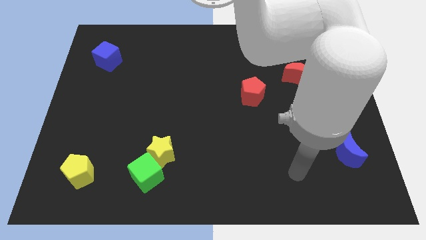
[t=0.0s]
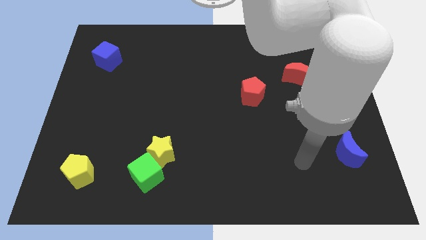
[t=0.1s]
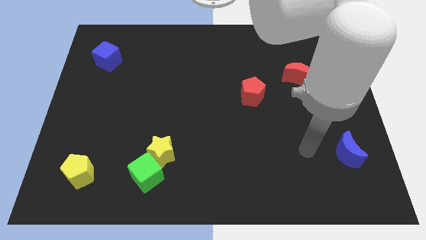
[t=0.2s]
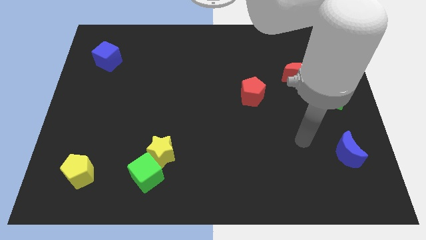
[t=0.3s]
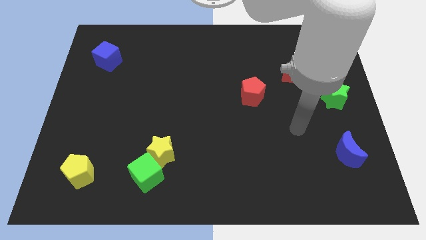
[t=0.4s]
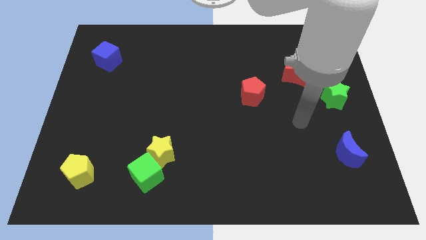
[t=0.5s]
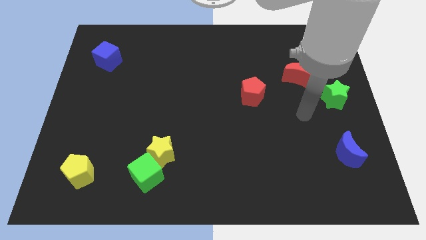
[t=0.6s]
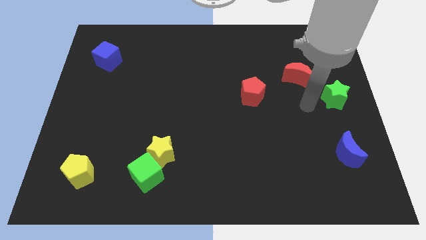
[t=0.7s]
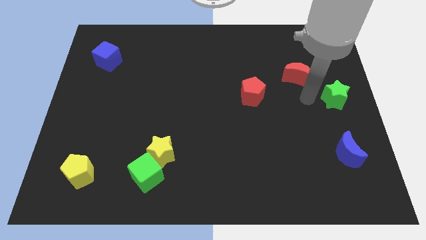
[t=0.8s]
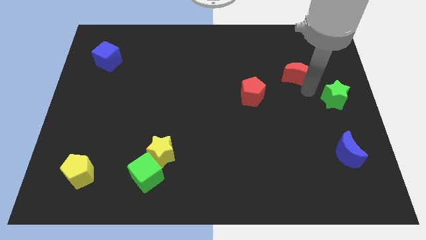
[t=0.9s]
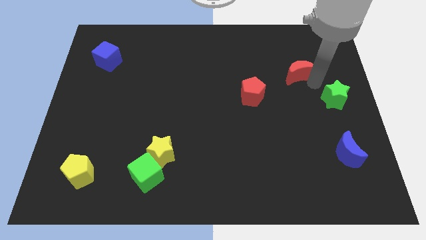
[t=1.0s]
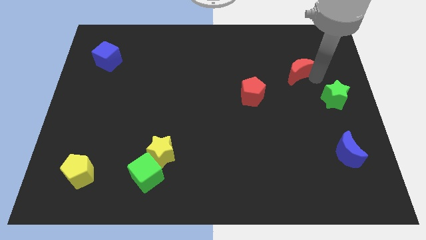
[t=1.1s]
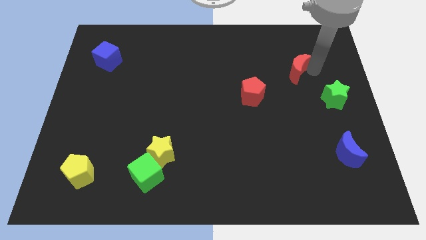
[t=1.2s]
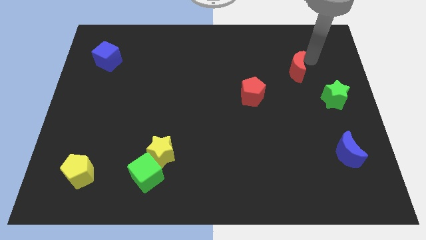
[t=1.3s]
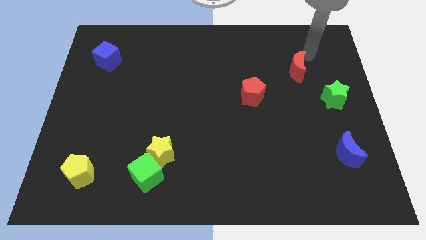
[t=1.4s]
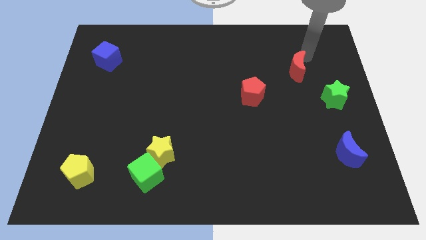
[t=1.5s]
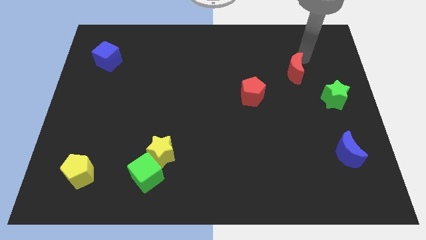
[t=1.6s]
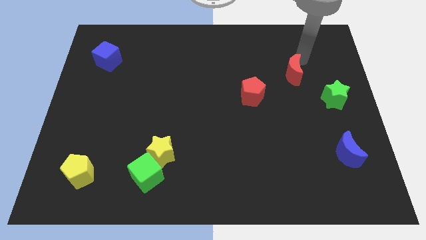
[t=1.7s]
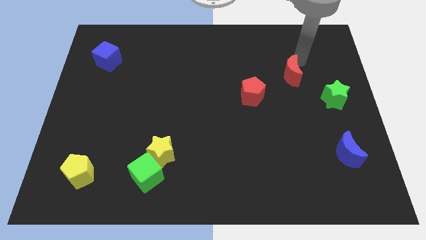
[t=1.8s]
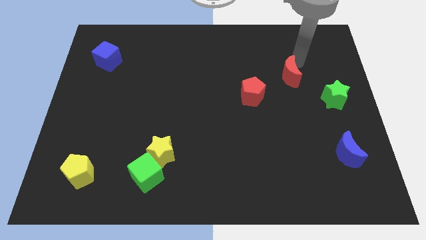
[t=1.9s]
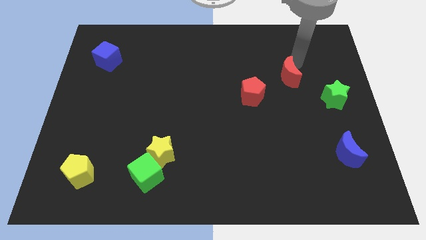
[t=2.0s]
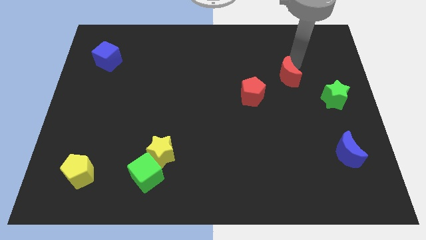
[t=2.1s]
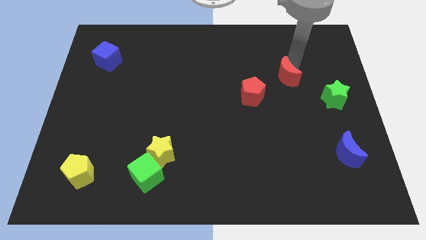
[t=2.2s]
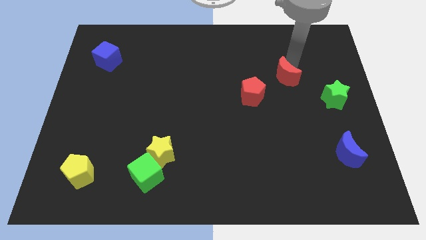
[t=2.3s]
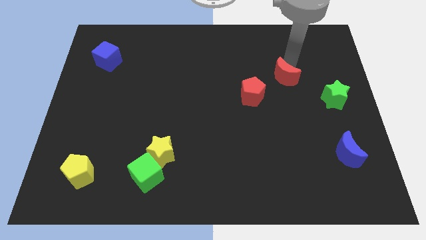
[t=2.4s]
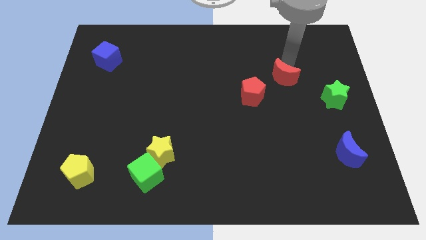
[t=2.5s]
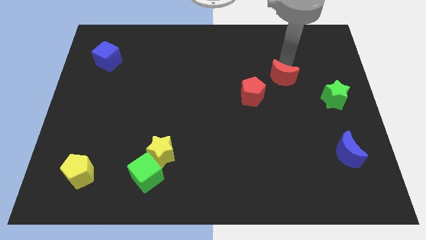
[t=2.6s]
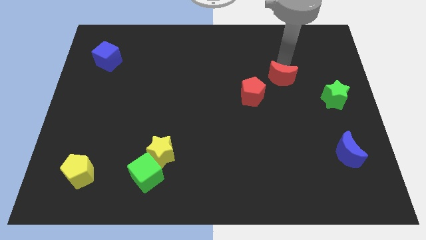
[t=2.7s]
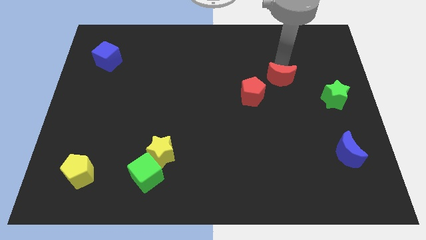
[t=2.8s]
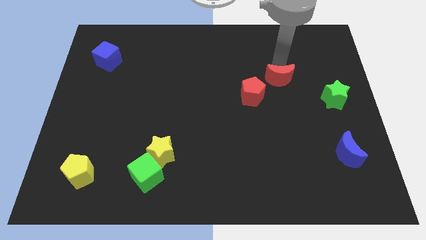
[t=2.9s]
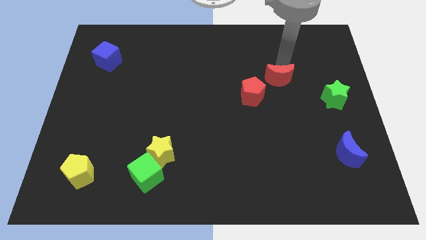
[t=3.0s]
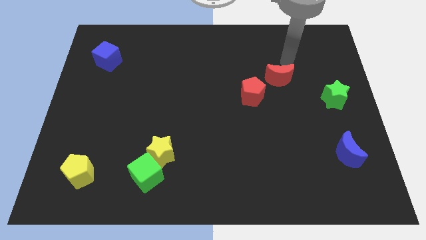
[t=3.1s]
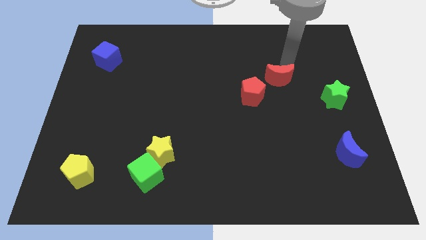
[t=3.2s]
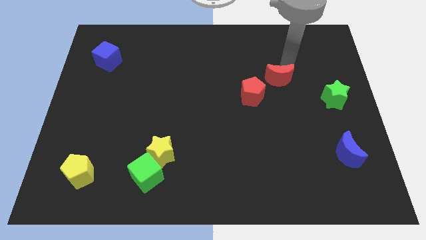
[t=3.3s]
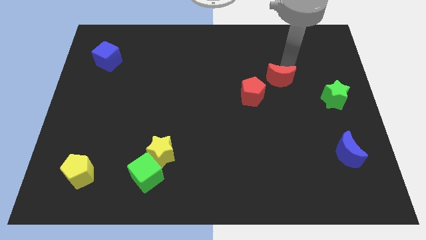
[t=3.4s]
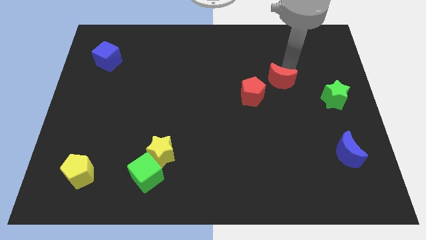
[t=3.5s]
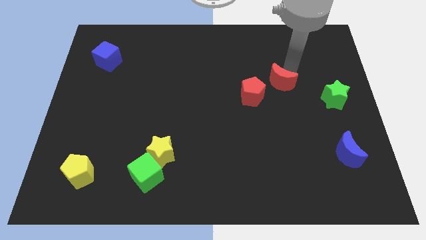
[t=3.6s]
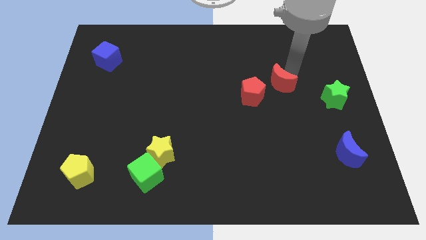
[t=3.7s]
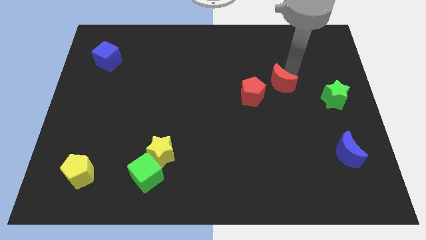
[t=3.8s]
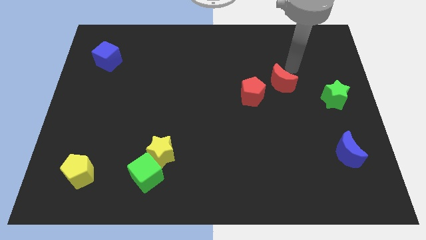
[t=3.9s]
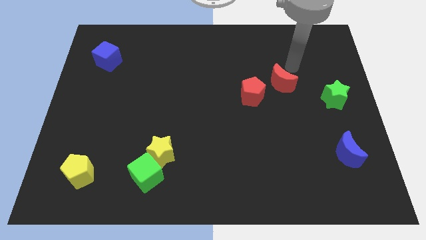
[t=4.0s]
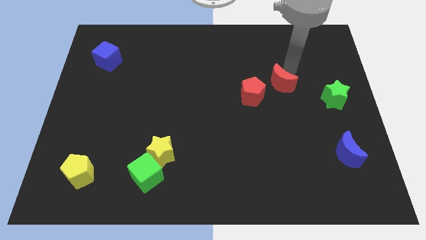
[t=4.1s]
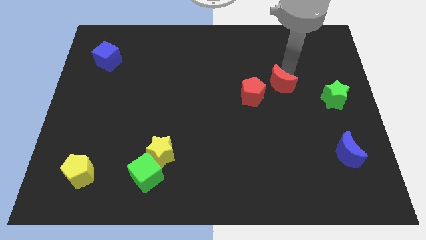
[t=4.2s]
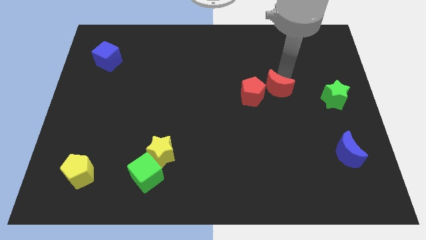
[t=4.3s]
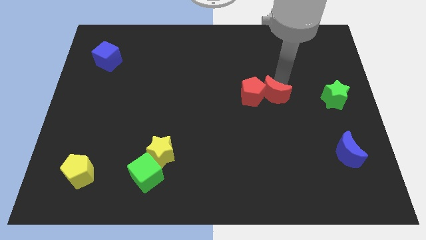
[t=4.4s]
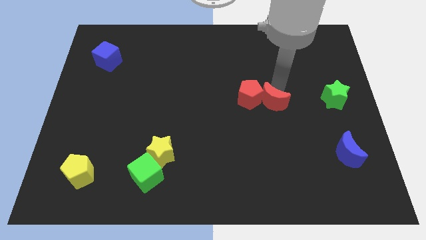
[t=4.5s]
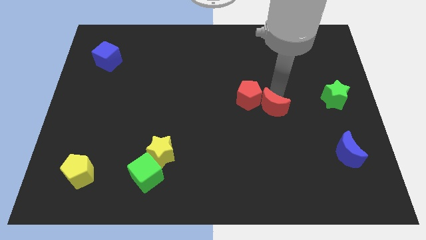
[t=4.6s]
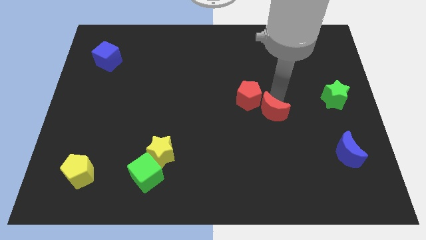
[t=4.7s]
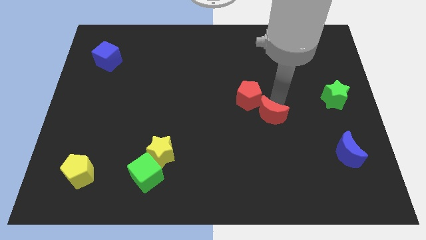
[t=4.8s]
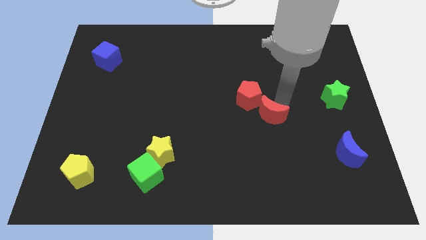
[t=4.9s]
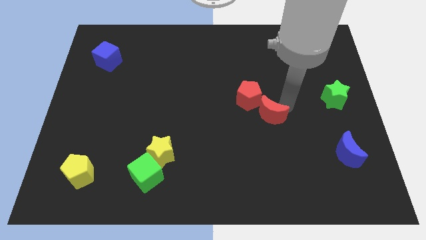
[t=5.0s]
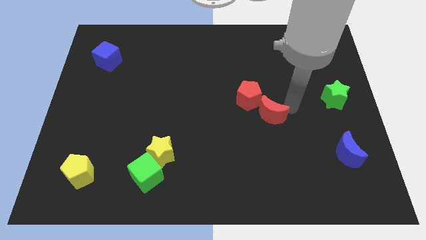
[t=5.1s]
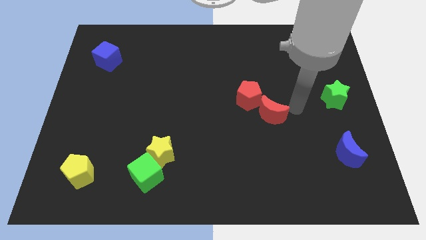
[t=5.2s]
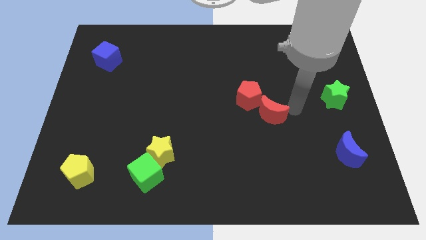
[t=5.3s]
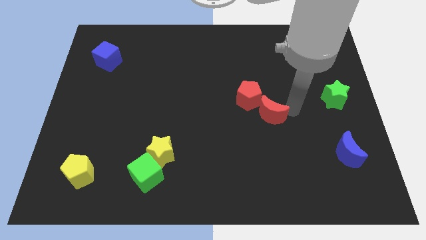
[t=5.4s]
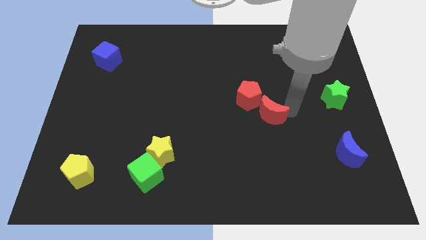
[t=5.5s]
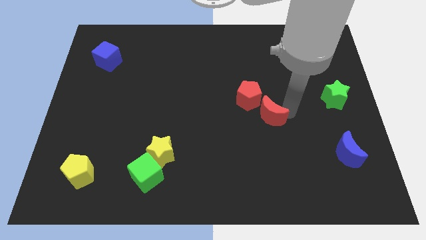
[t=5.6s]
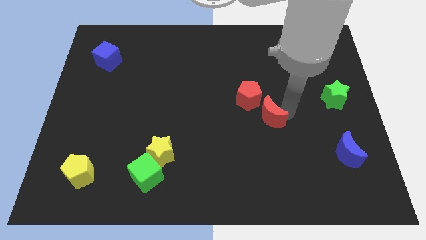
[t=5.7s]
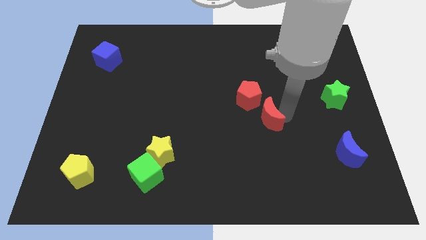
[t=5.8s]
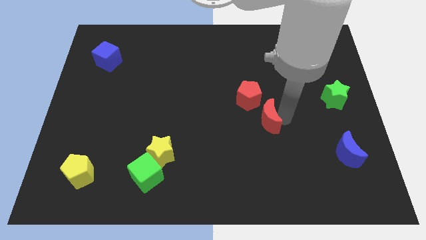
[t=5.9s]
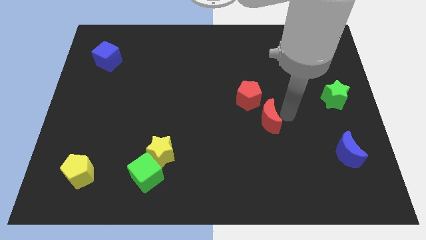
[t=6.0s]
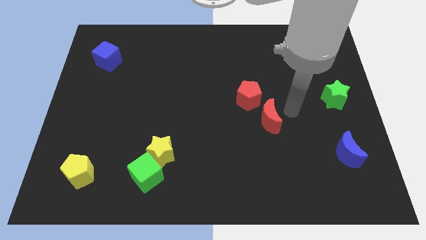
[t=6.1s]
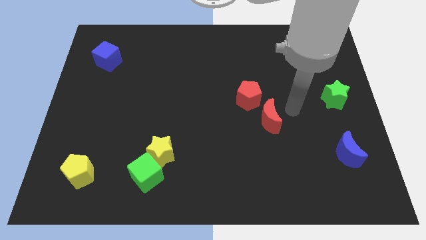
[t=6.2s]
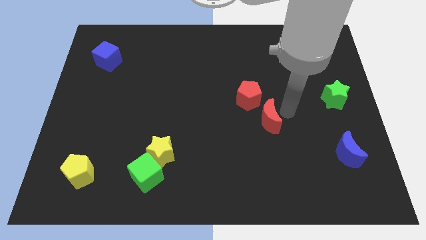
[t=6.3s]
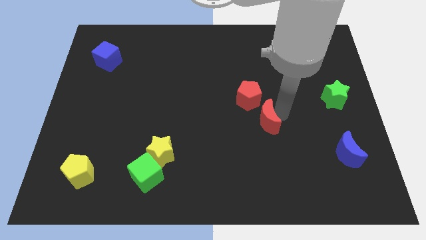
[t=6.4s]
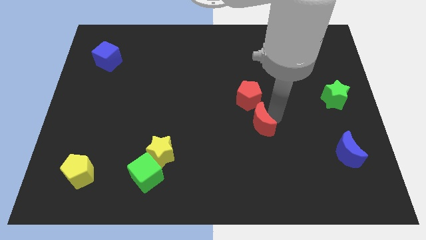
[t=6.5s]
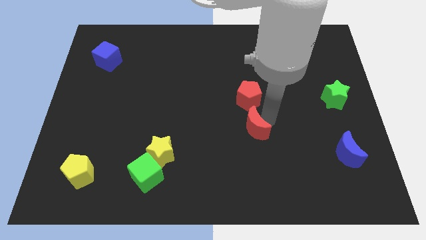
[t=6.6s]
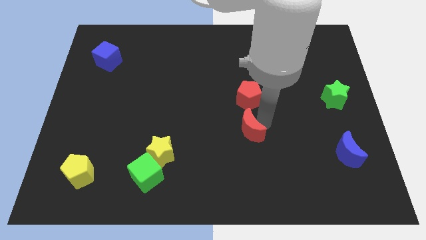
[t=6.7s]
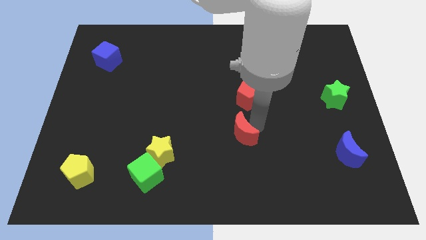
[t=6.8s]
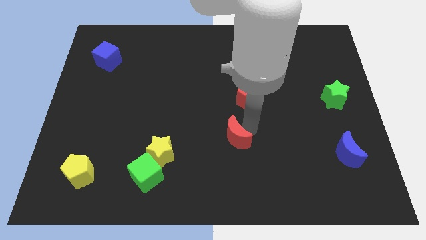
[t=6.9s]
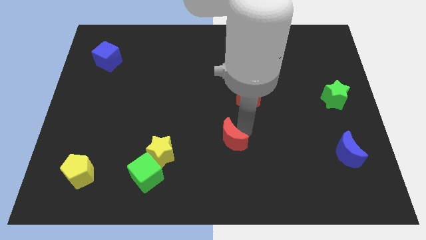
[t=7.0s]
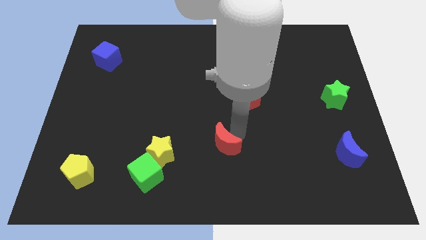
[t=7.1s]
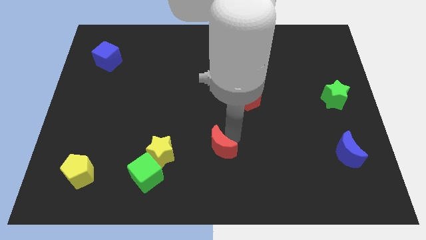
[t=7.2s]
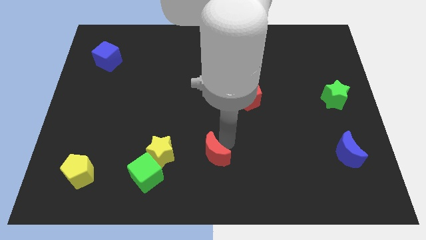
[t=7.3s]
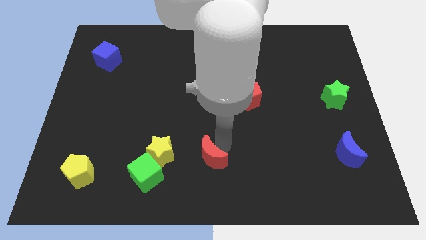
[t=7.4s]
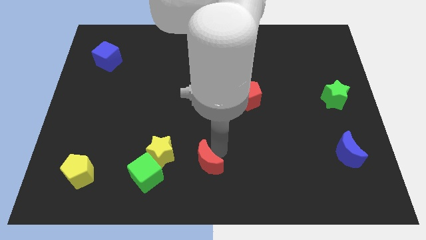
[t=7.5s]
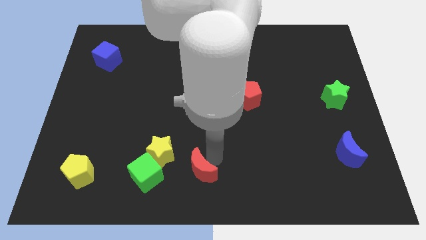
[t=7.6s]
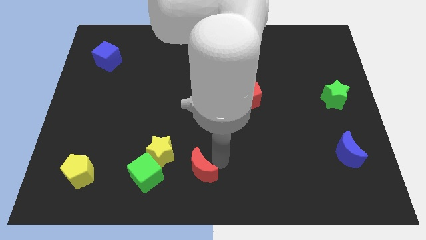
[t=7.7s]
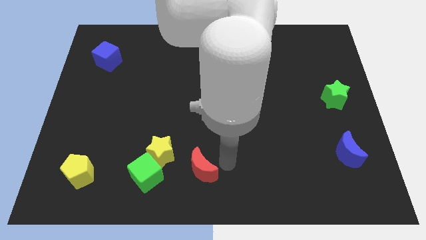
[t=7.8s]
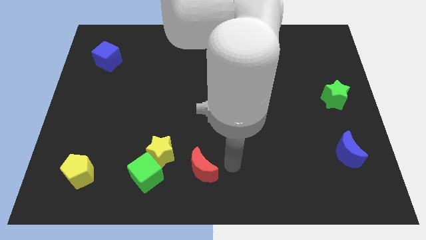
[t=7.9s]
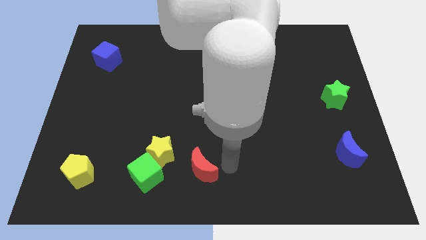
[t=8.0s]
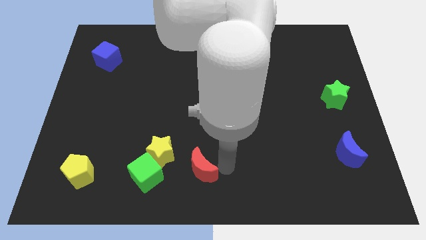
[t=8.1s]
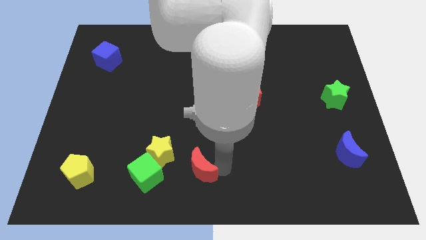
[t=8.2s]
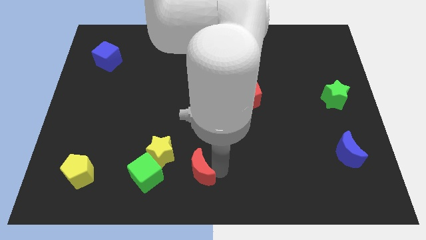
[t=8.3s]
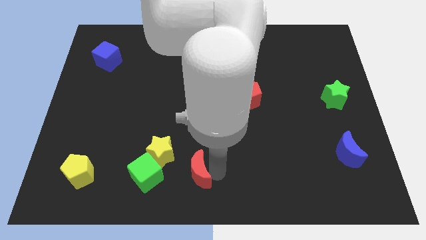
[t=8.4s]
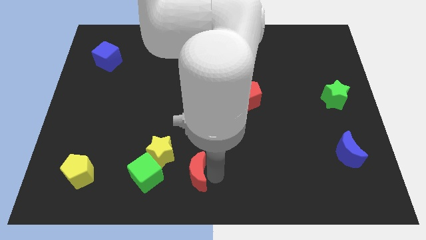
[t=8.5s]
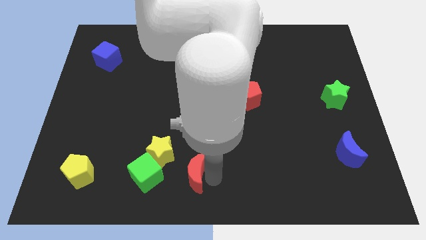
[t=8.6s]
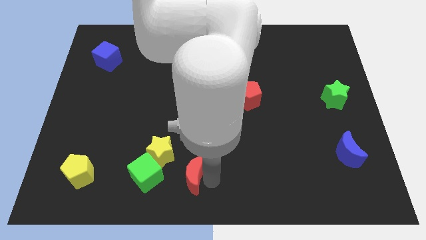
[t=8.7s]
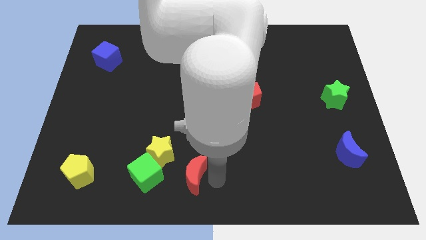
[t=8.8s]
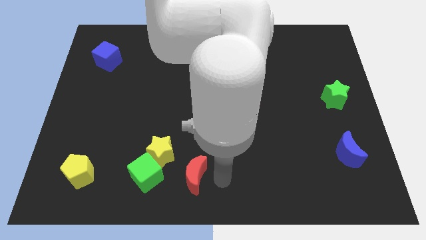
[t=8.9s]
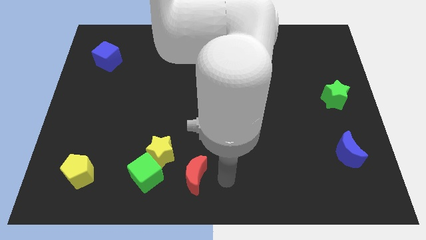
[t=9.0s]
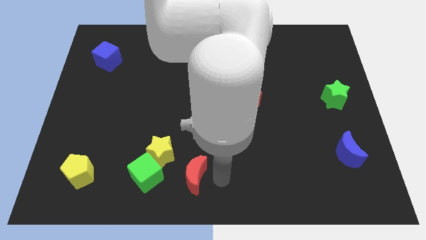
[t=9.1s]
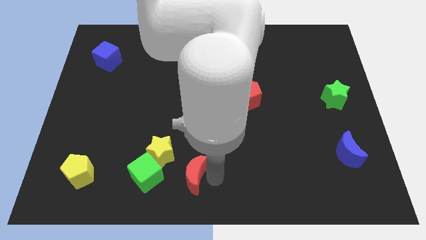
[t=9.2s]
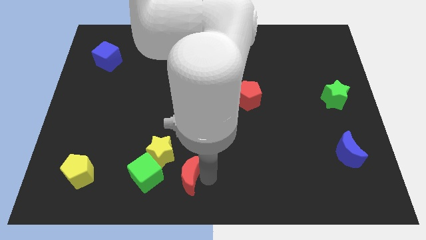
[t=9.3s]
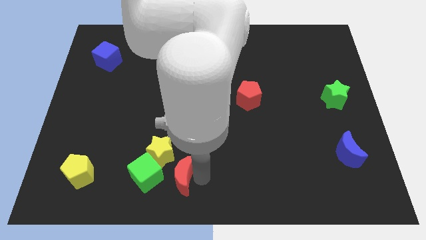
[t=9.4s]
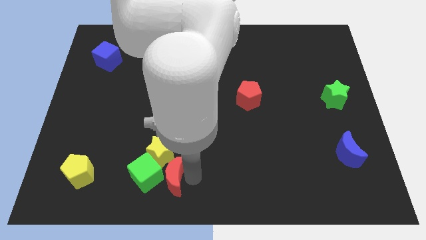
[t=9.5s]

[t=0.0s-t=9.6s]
slide the red moon towards the green cube
